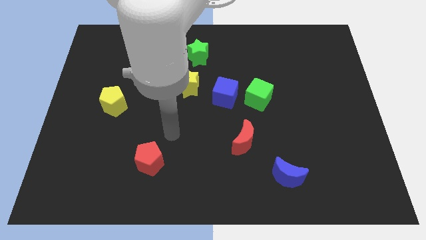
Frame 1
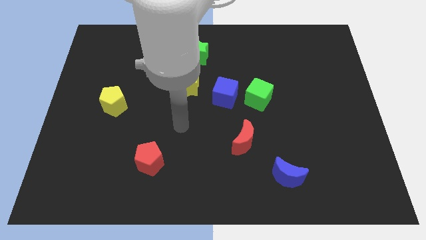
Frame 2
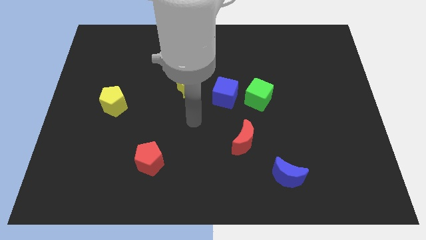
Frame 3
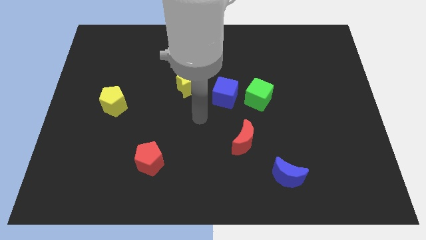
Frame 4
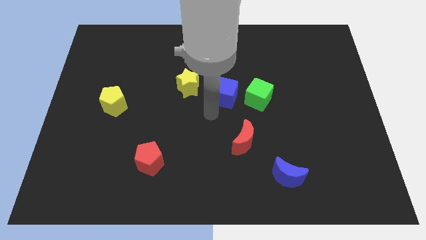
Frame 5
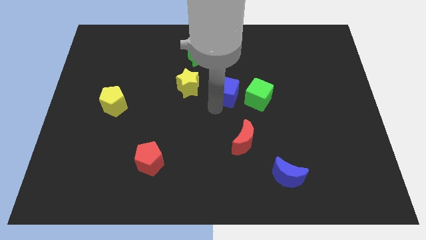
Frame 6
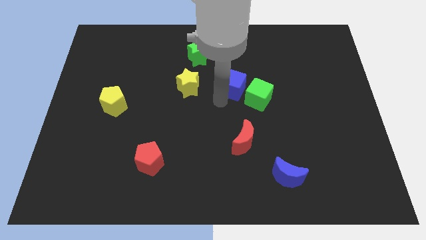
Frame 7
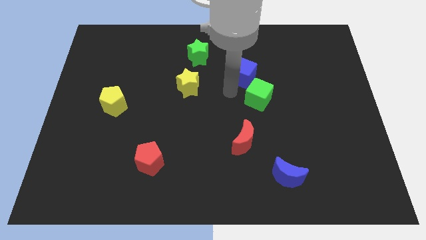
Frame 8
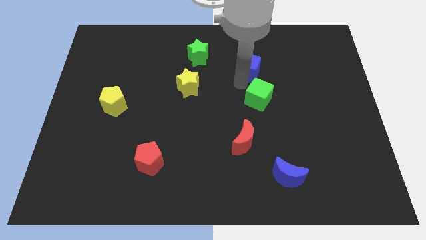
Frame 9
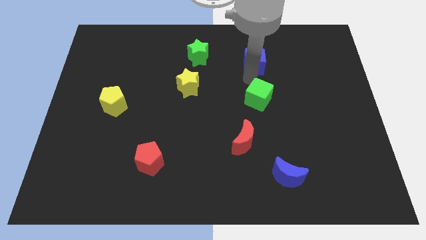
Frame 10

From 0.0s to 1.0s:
pull the green cube apart from the blue cube

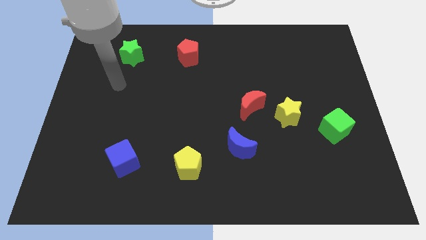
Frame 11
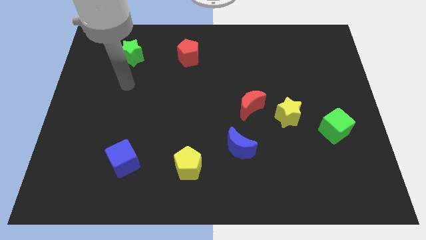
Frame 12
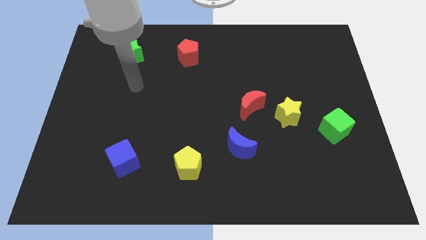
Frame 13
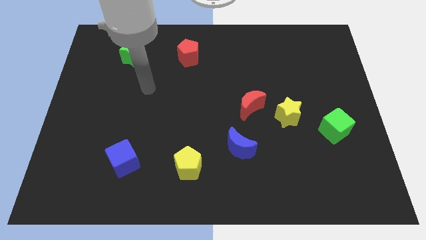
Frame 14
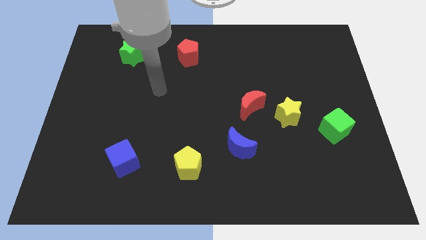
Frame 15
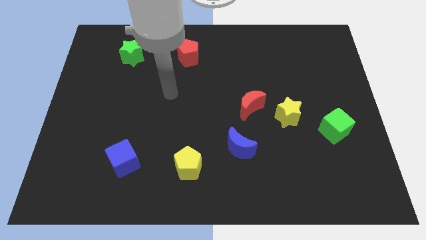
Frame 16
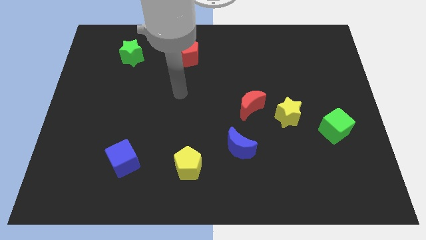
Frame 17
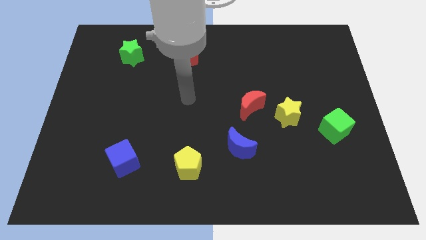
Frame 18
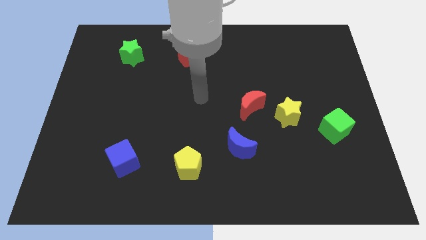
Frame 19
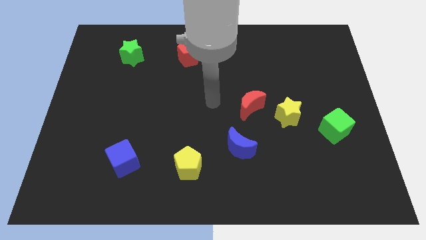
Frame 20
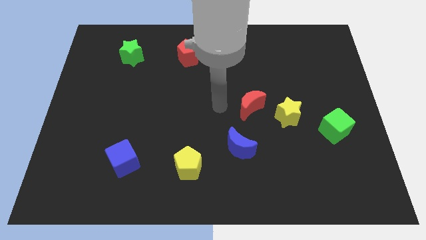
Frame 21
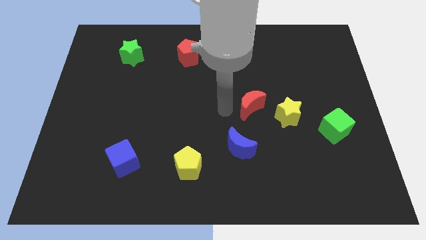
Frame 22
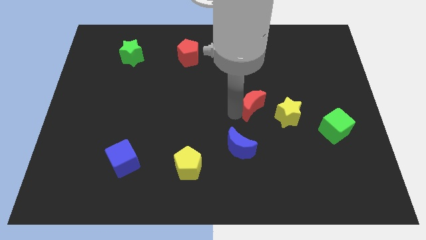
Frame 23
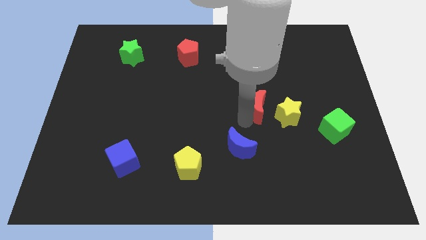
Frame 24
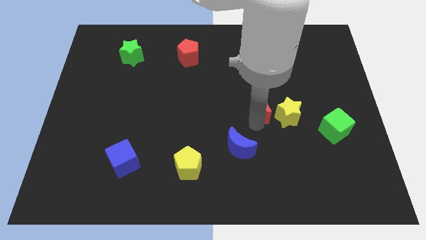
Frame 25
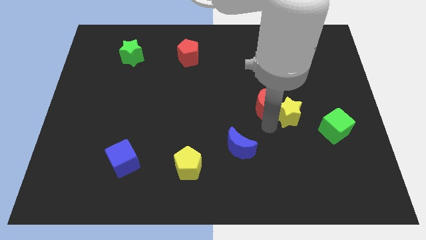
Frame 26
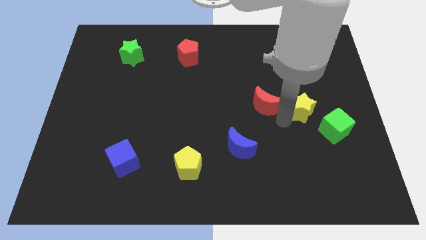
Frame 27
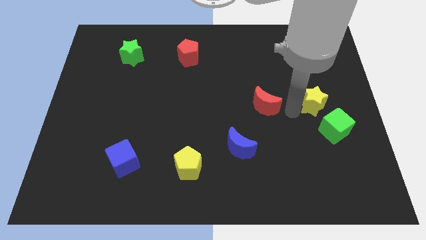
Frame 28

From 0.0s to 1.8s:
move the red moon away from the yellow star

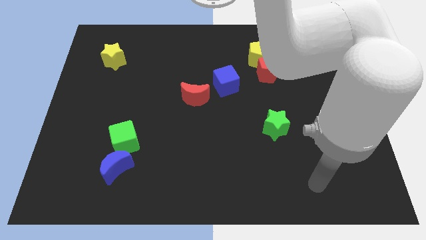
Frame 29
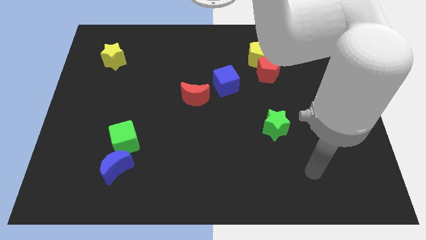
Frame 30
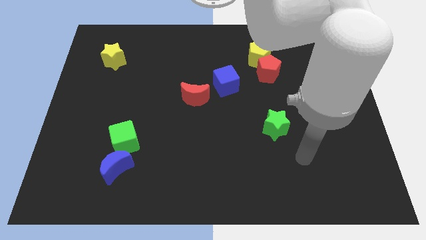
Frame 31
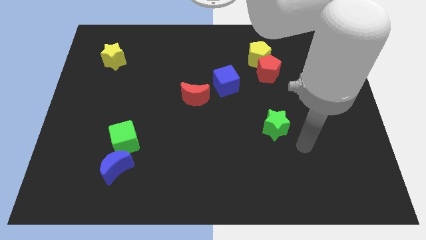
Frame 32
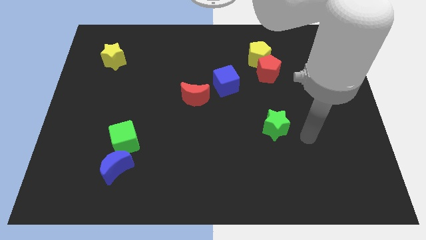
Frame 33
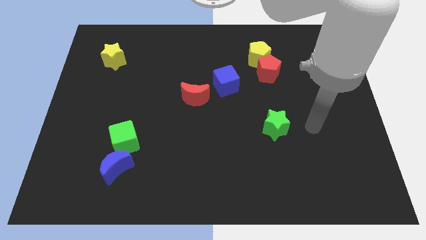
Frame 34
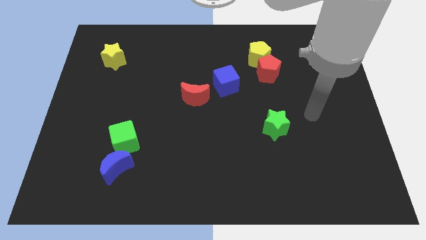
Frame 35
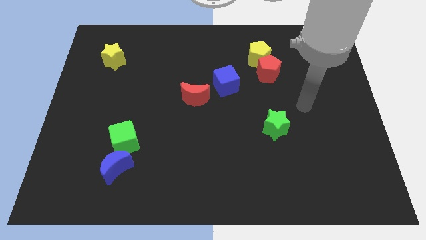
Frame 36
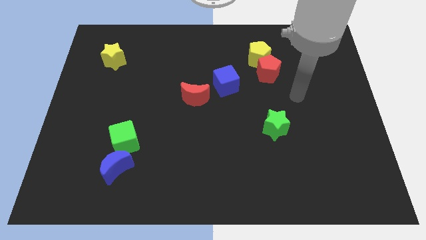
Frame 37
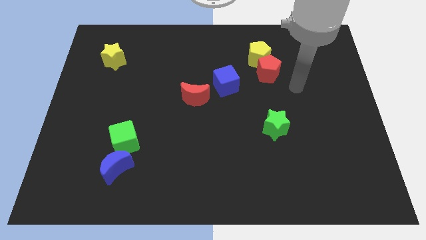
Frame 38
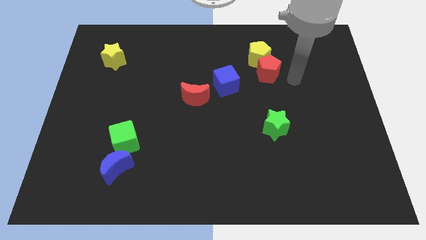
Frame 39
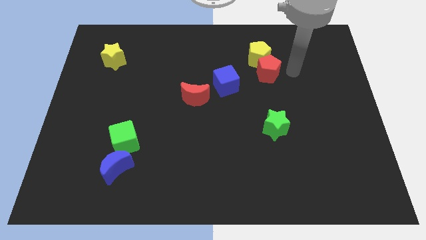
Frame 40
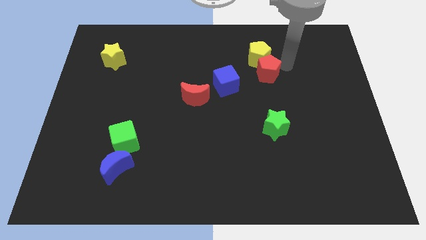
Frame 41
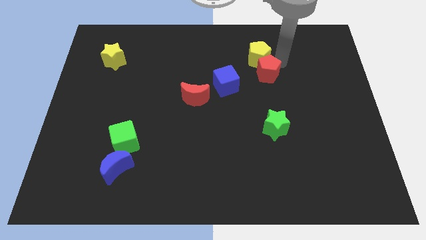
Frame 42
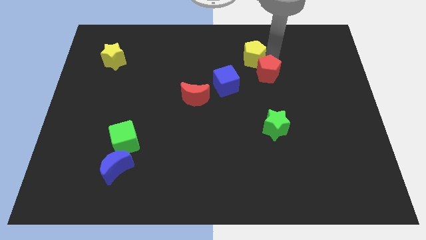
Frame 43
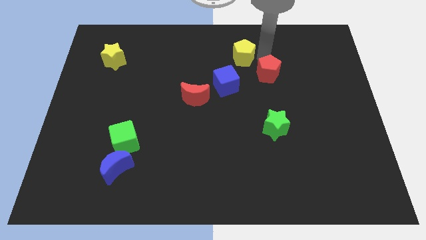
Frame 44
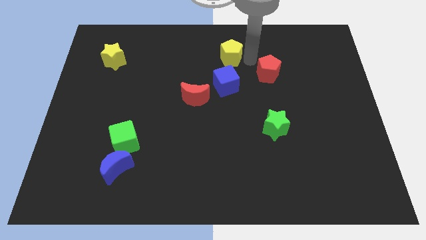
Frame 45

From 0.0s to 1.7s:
pull the red pentagon apart from the yellow pentagon

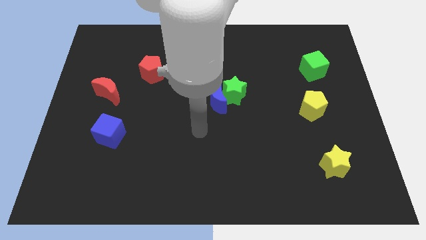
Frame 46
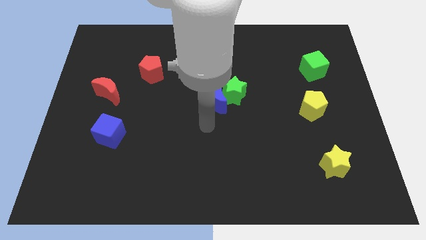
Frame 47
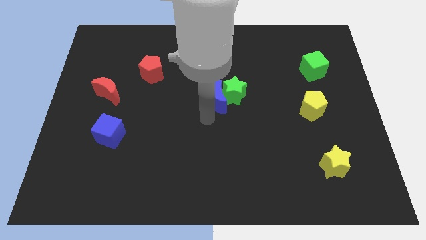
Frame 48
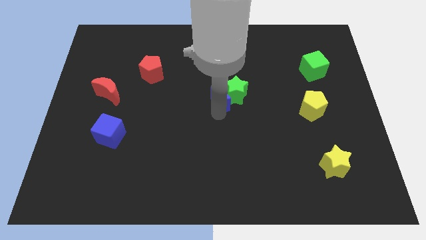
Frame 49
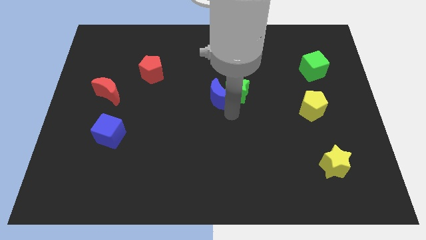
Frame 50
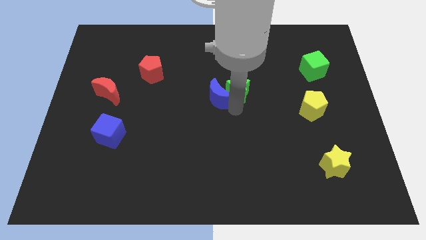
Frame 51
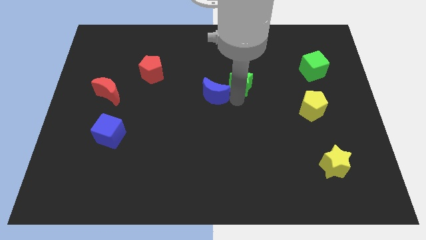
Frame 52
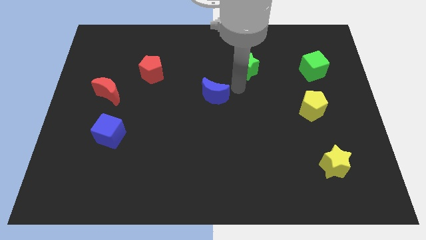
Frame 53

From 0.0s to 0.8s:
separate the blue moon from the green star

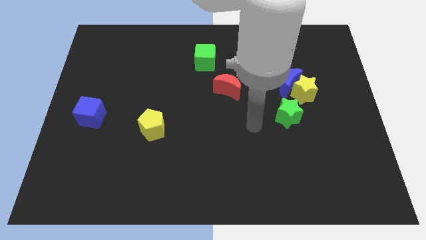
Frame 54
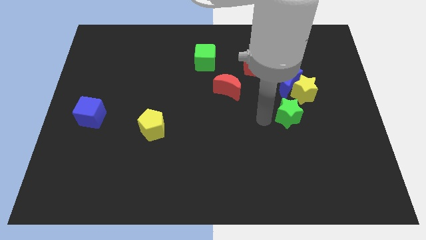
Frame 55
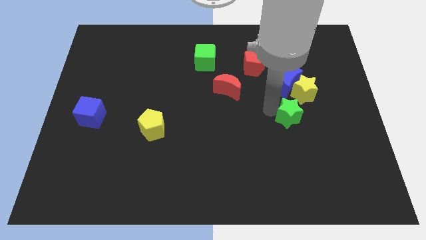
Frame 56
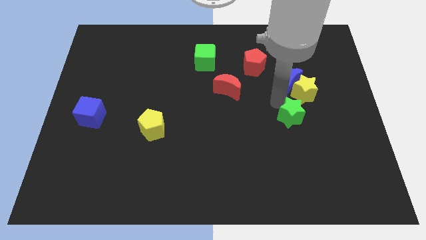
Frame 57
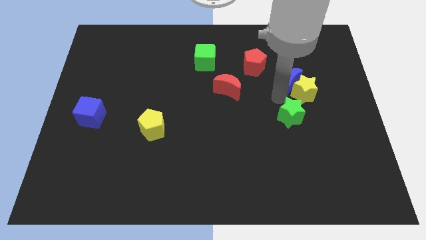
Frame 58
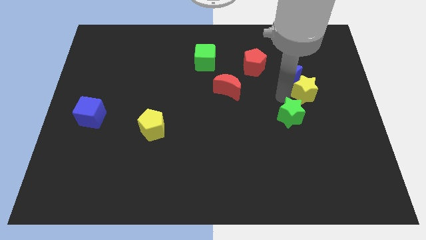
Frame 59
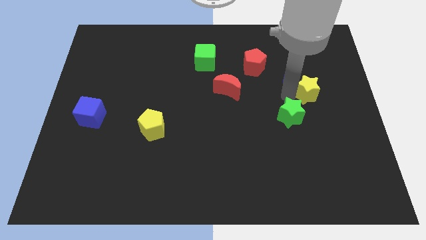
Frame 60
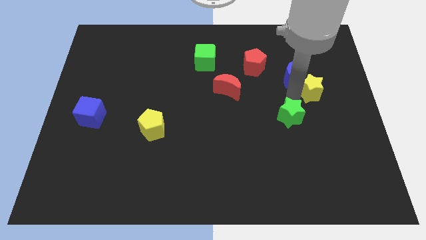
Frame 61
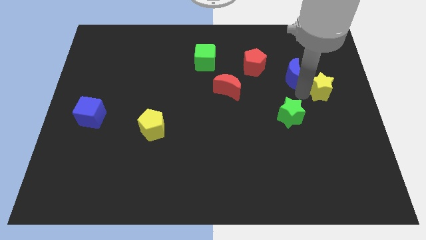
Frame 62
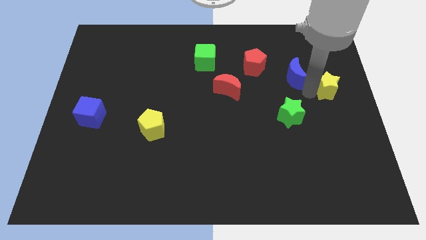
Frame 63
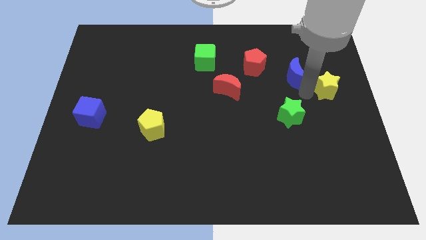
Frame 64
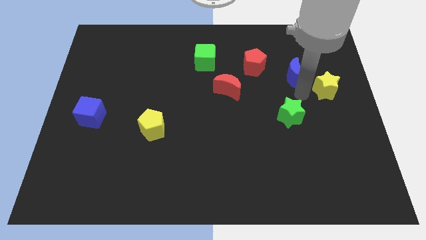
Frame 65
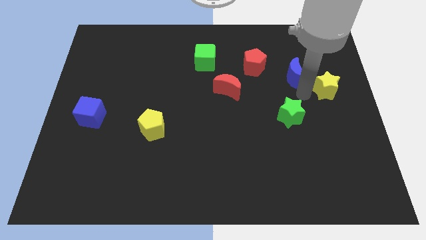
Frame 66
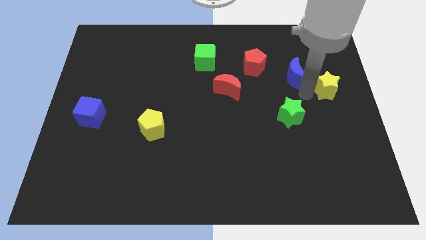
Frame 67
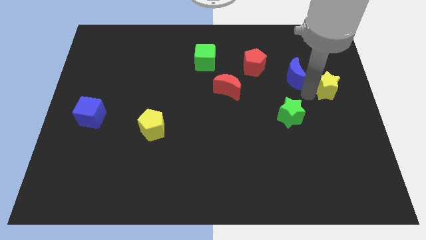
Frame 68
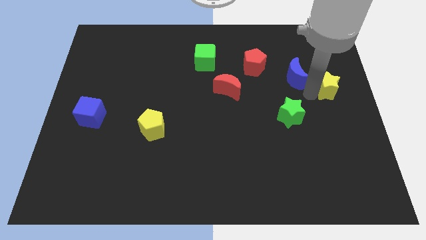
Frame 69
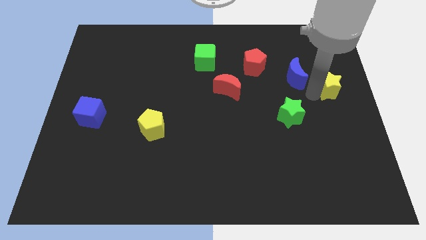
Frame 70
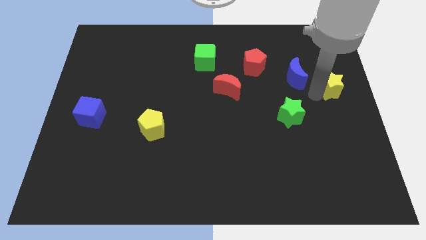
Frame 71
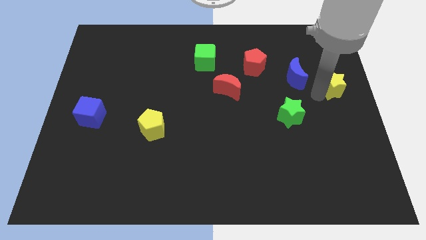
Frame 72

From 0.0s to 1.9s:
pull the yellow star apart from the blue moon and green star

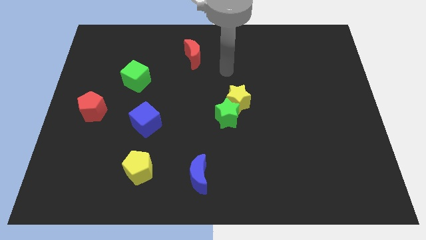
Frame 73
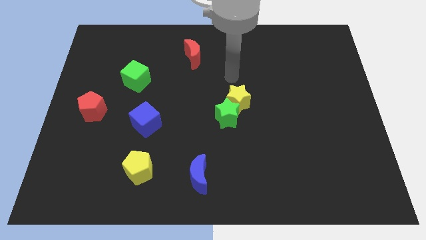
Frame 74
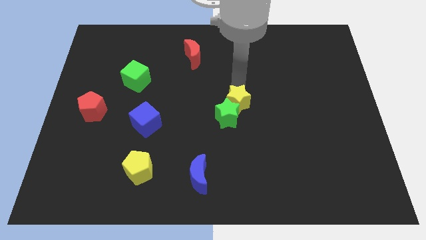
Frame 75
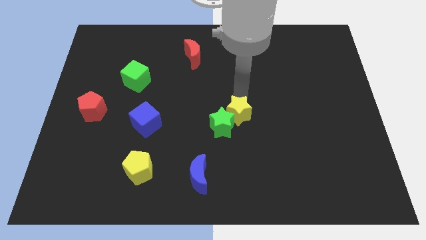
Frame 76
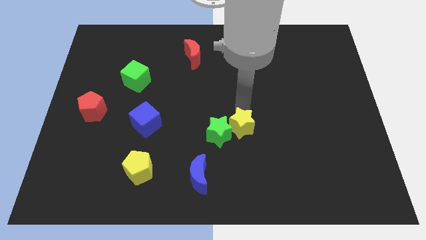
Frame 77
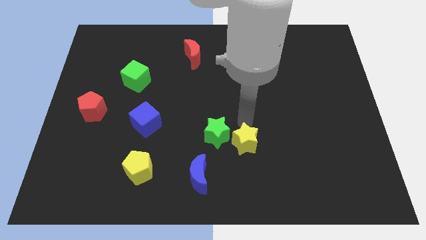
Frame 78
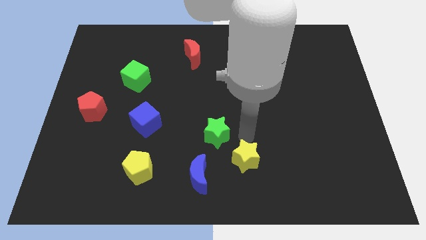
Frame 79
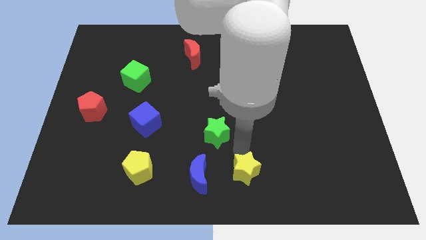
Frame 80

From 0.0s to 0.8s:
pull the green star apart from the yellow star

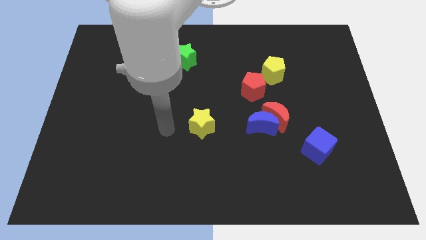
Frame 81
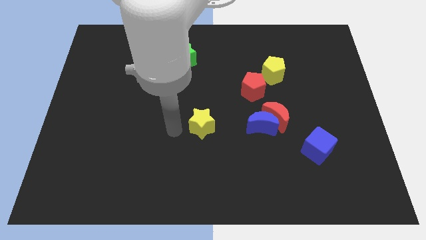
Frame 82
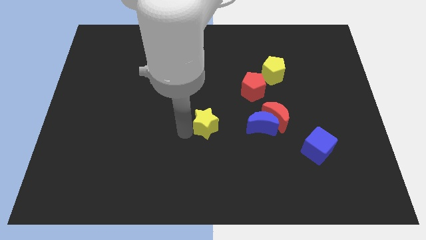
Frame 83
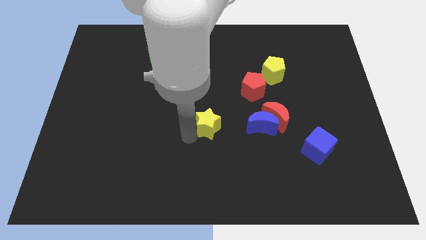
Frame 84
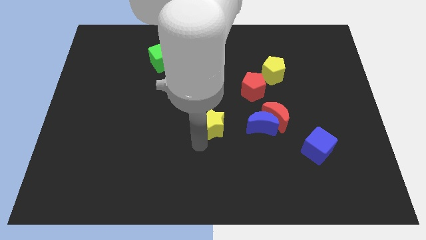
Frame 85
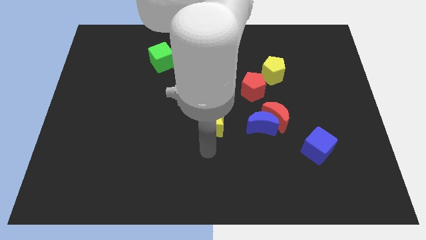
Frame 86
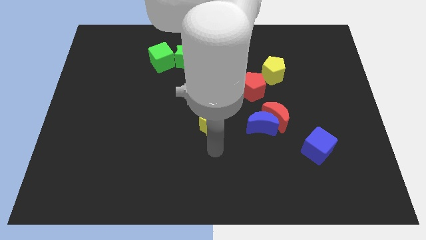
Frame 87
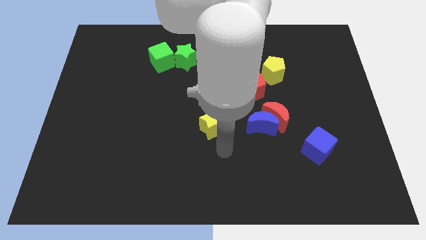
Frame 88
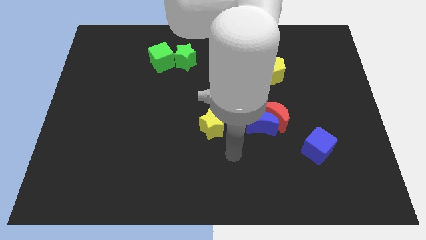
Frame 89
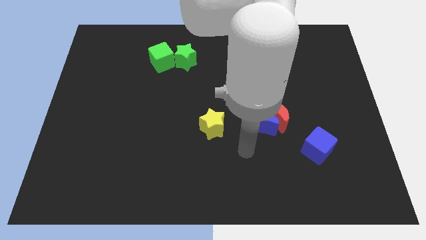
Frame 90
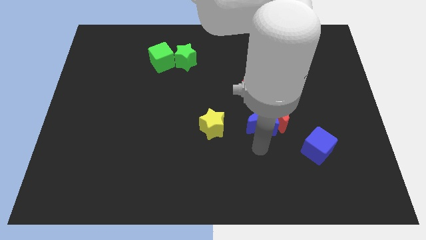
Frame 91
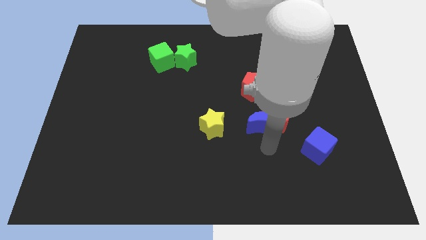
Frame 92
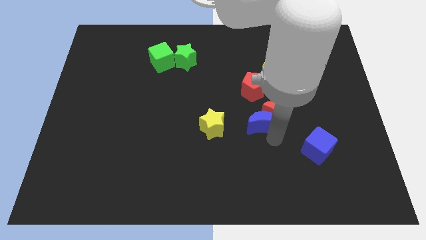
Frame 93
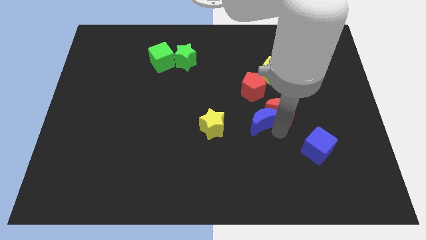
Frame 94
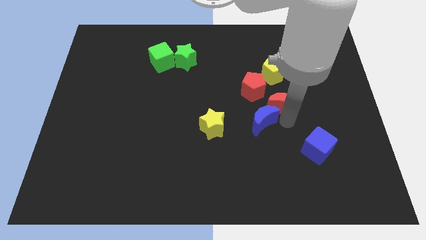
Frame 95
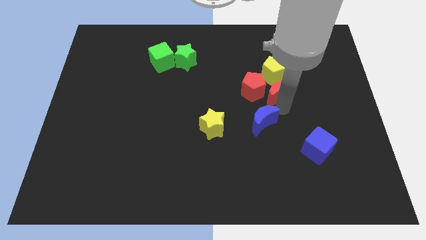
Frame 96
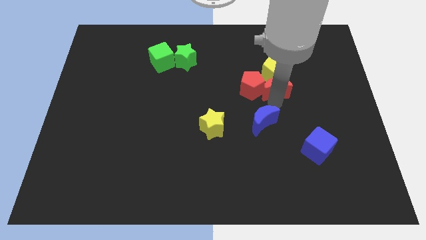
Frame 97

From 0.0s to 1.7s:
move the blue moon away from the red moon
